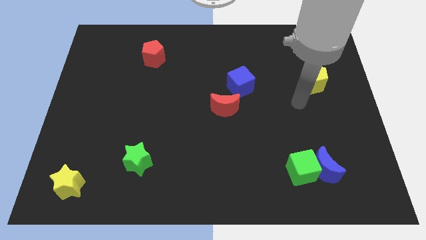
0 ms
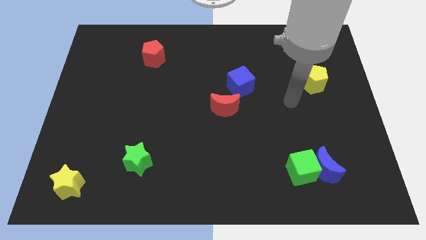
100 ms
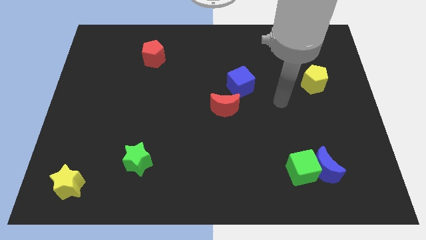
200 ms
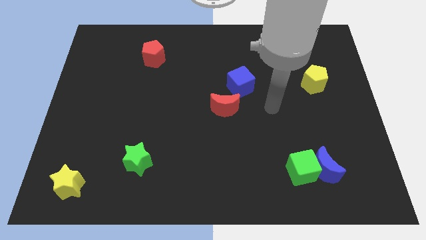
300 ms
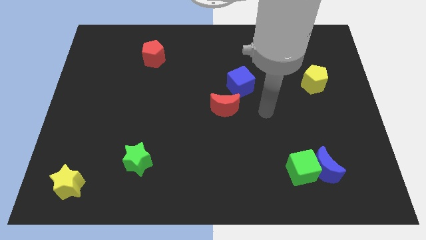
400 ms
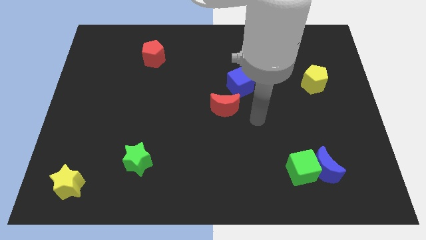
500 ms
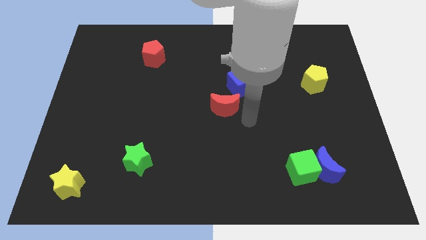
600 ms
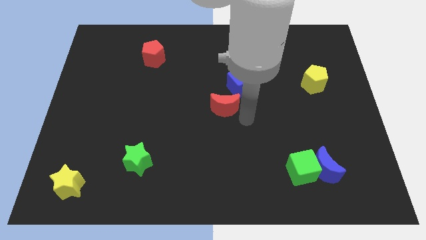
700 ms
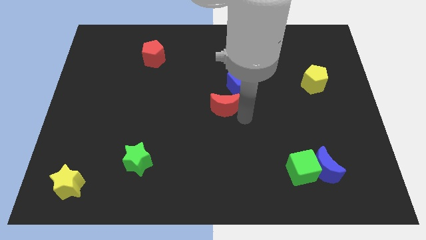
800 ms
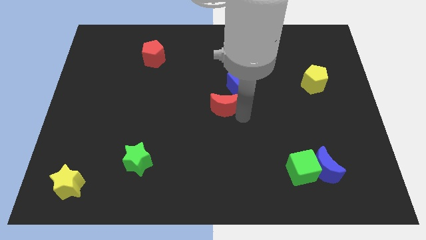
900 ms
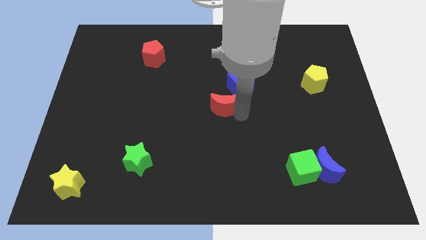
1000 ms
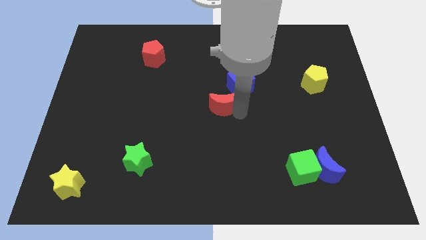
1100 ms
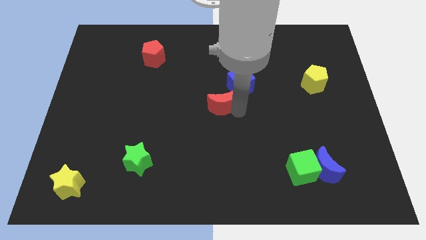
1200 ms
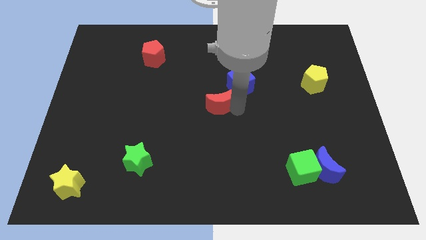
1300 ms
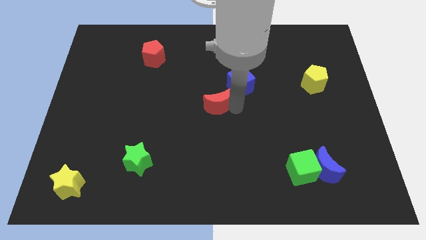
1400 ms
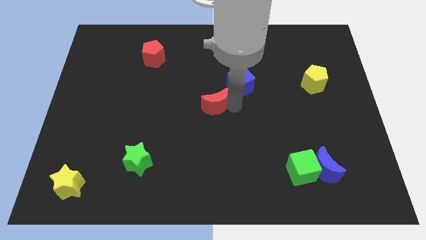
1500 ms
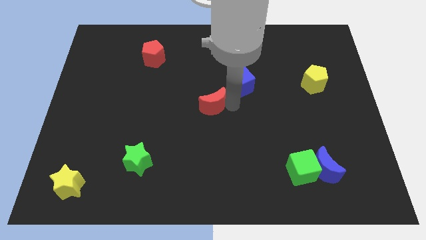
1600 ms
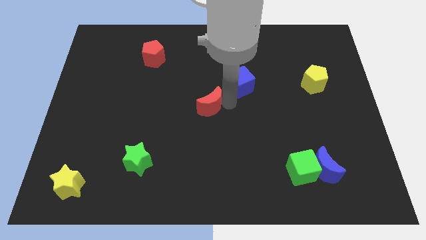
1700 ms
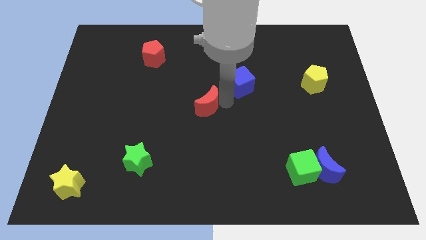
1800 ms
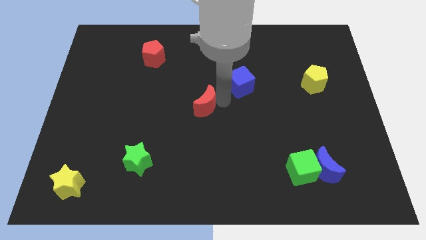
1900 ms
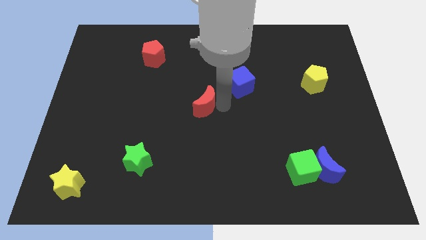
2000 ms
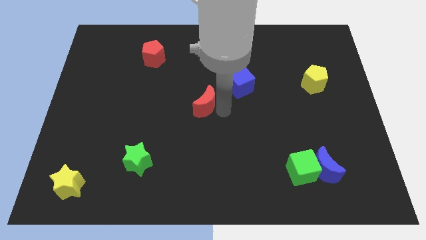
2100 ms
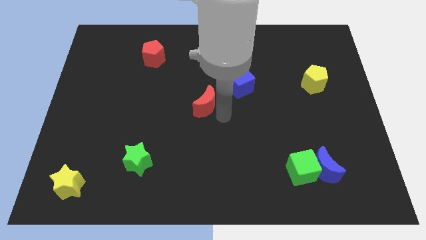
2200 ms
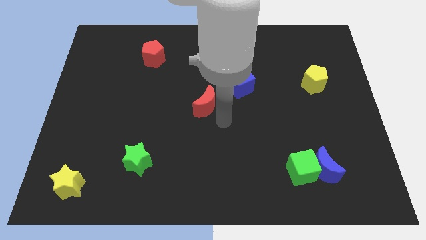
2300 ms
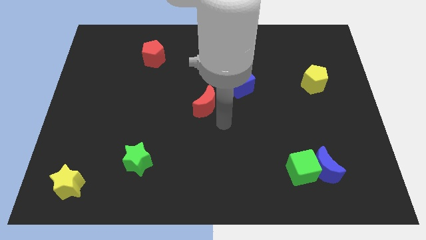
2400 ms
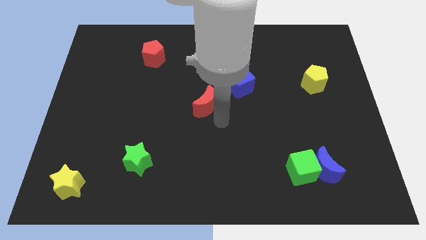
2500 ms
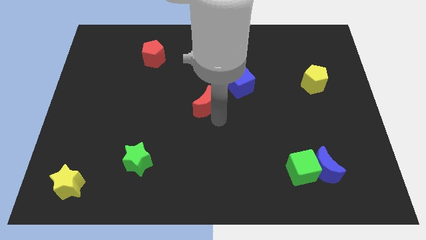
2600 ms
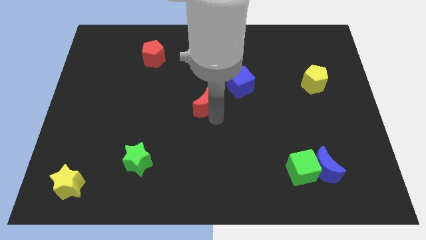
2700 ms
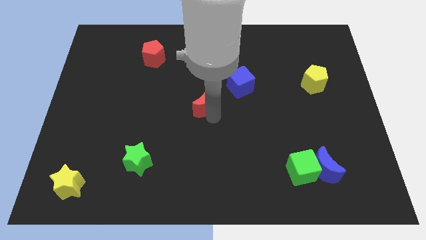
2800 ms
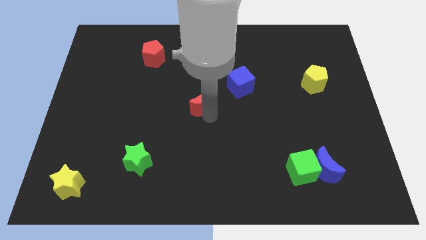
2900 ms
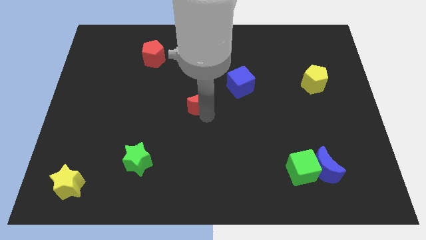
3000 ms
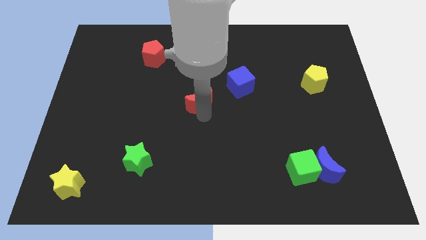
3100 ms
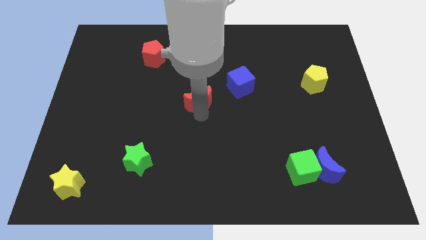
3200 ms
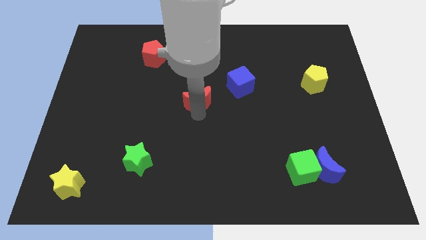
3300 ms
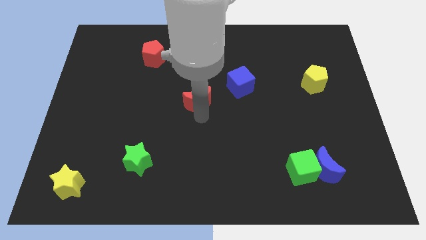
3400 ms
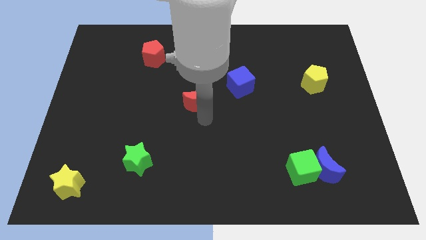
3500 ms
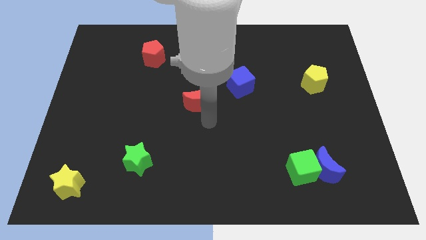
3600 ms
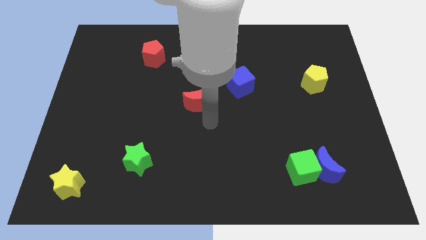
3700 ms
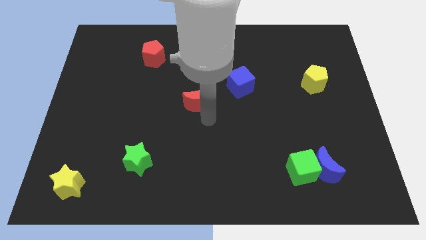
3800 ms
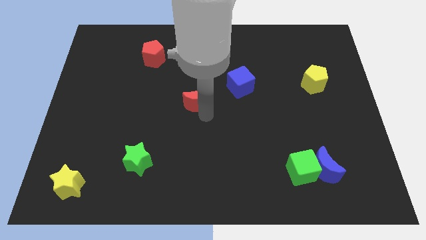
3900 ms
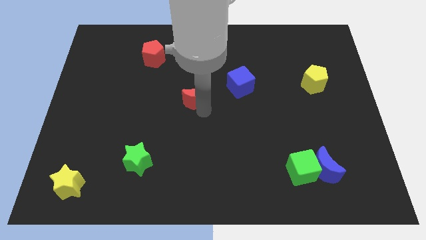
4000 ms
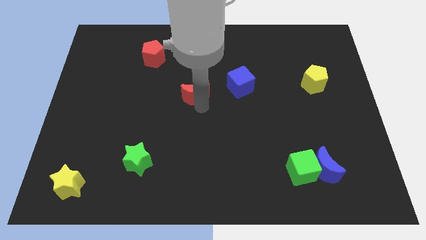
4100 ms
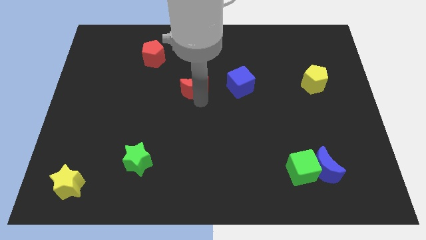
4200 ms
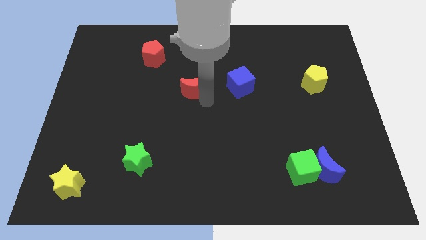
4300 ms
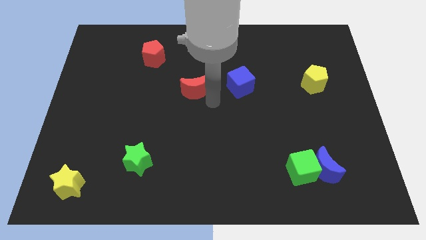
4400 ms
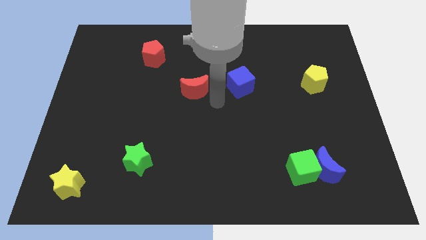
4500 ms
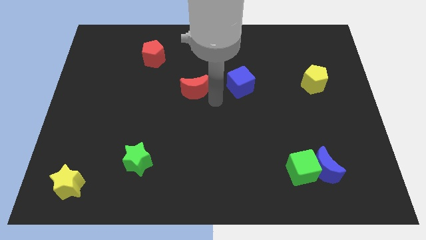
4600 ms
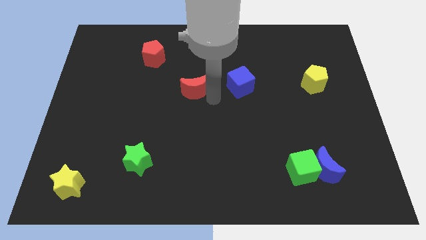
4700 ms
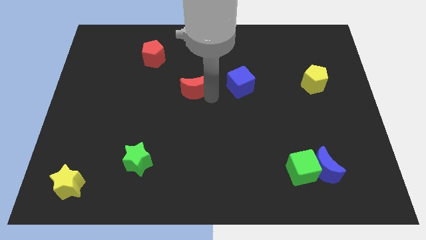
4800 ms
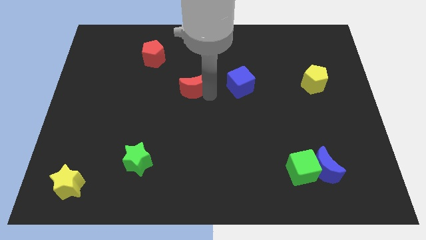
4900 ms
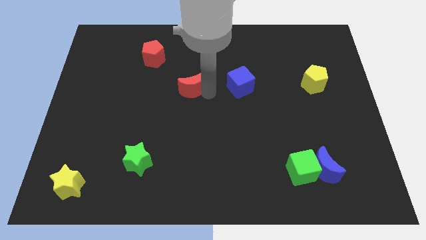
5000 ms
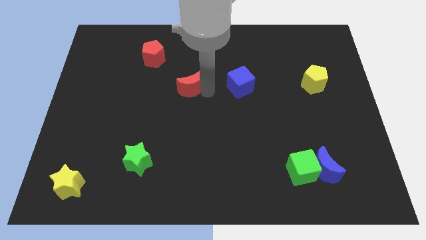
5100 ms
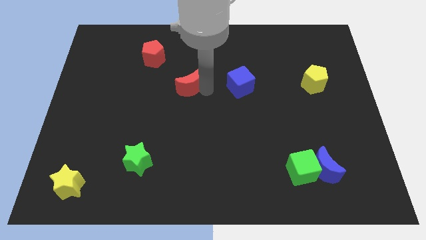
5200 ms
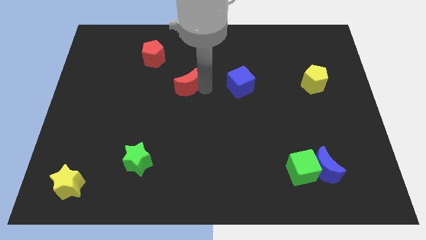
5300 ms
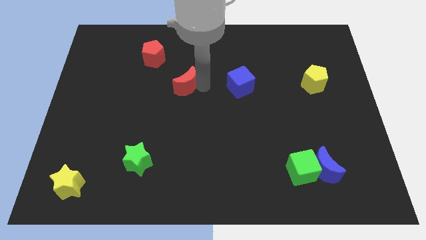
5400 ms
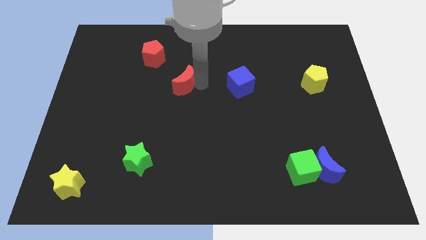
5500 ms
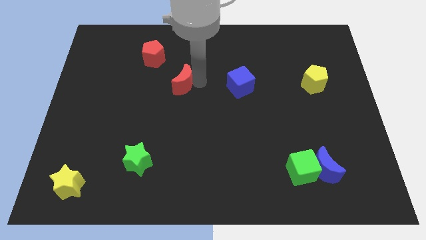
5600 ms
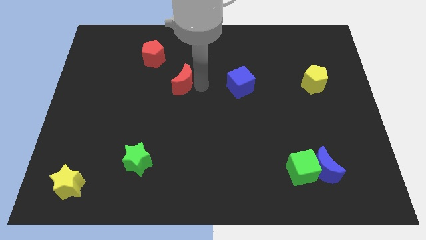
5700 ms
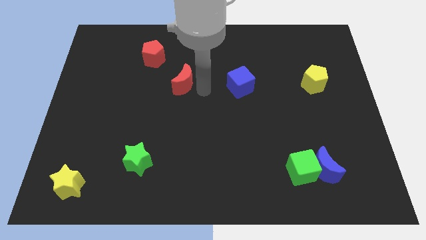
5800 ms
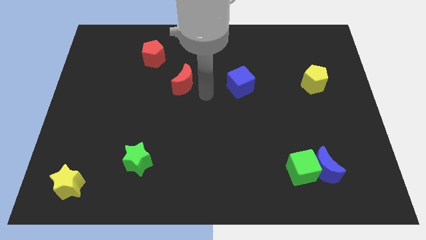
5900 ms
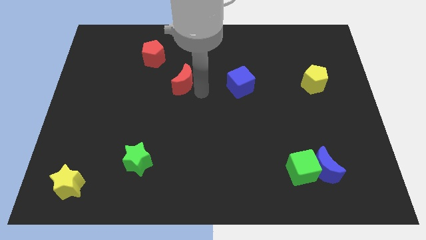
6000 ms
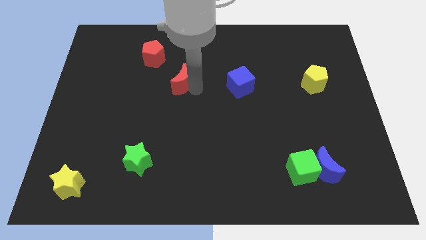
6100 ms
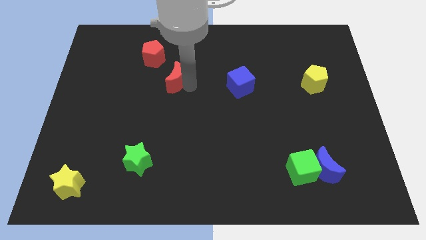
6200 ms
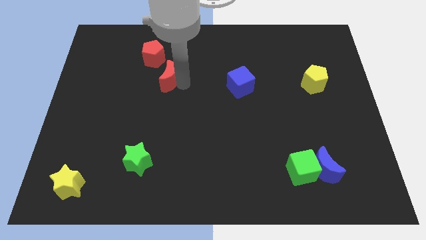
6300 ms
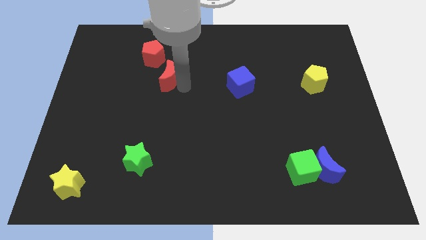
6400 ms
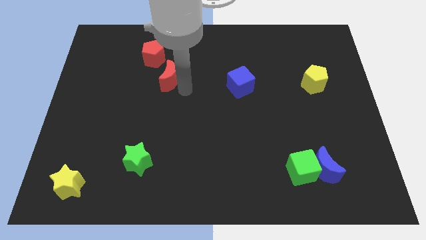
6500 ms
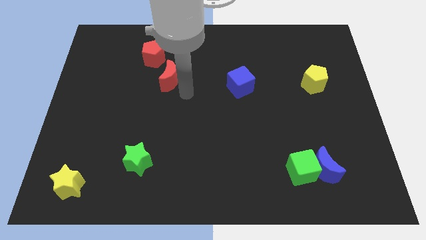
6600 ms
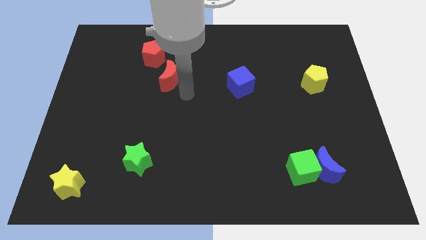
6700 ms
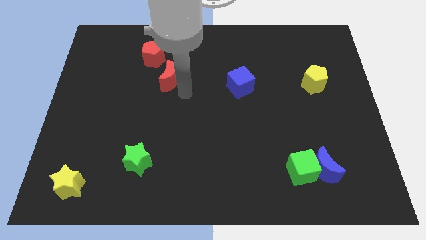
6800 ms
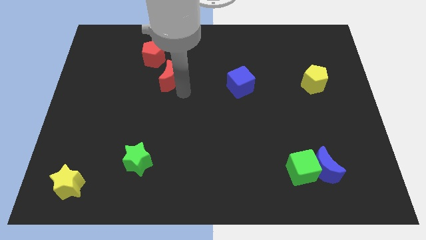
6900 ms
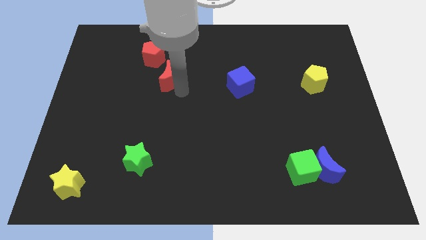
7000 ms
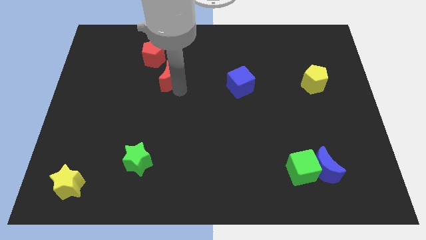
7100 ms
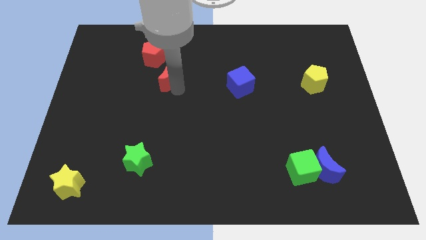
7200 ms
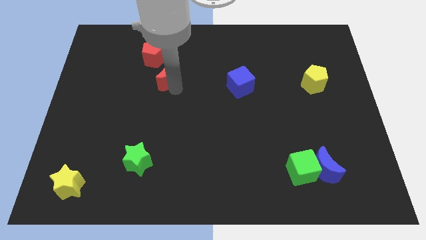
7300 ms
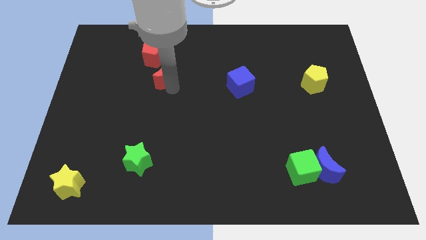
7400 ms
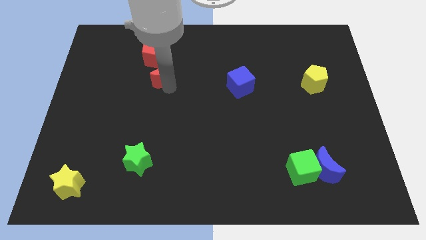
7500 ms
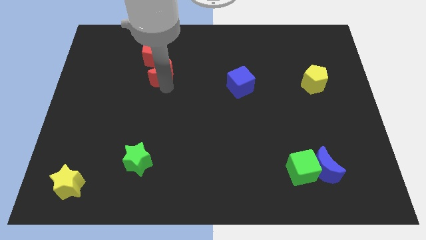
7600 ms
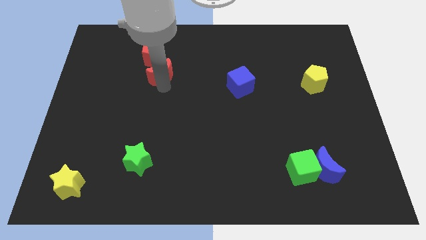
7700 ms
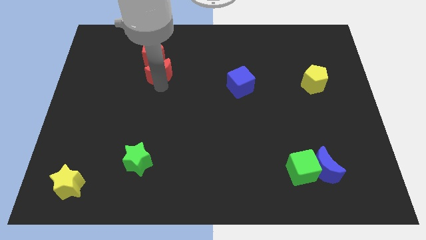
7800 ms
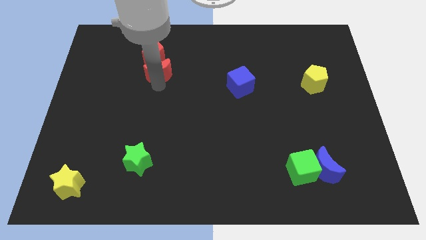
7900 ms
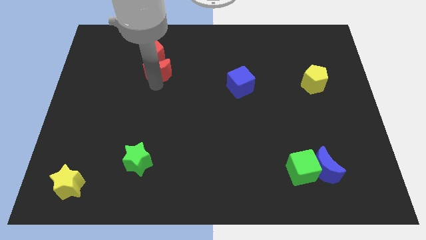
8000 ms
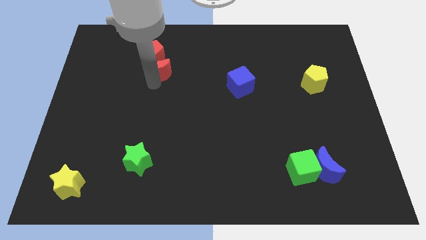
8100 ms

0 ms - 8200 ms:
put the red moon close to the red pentagon
